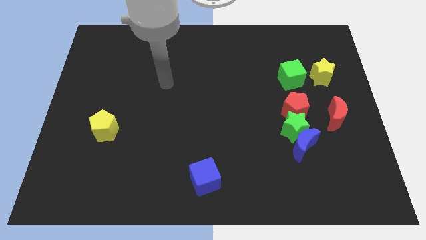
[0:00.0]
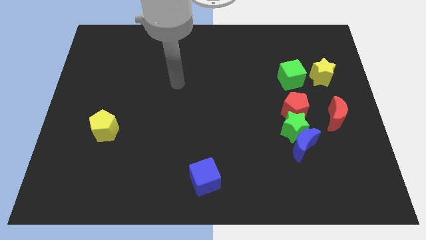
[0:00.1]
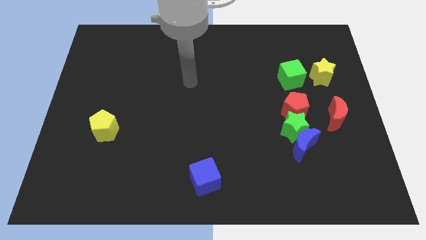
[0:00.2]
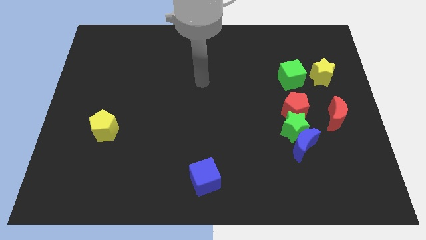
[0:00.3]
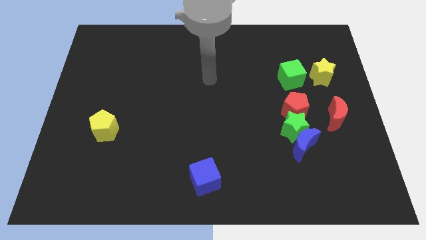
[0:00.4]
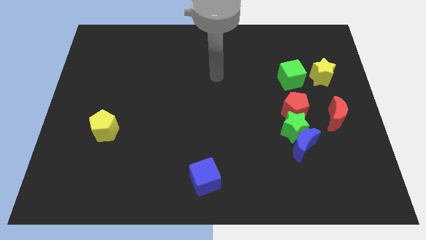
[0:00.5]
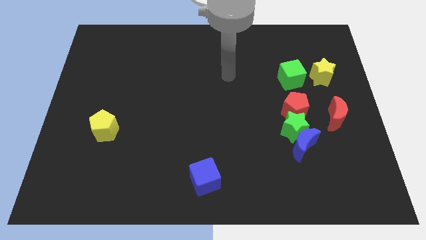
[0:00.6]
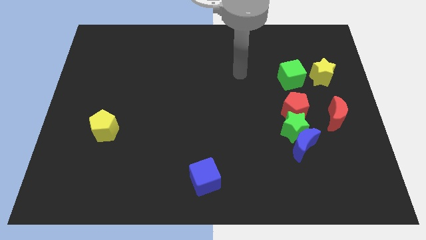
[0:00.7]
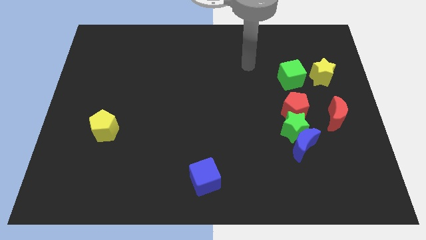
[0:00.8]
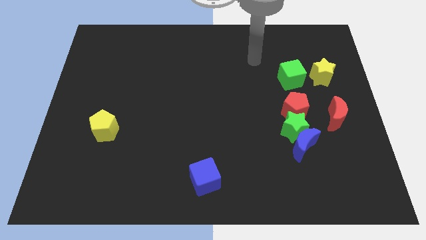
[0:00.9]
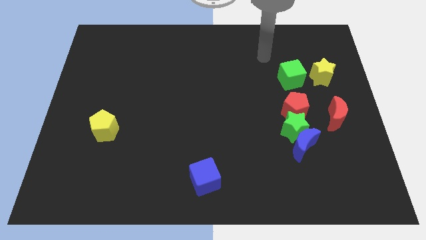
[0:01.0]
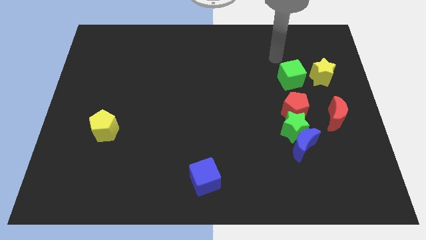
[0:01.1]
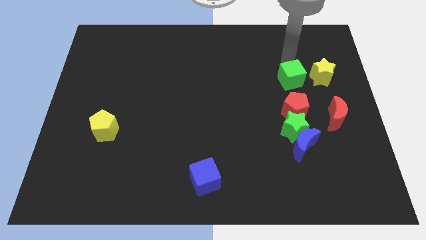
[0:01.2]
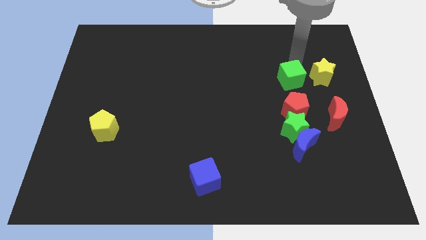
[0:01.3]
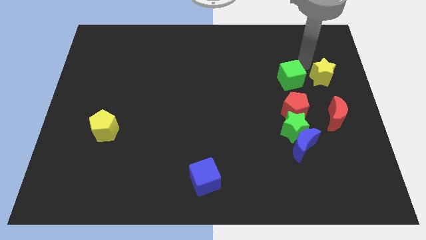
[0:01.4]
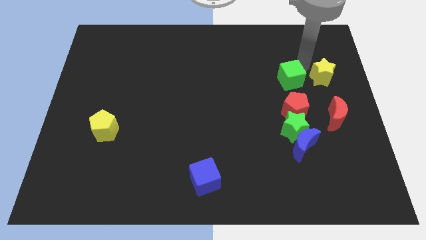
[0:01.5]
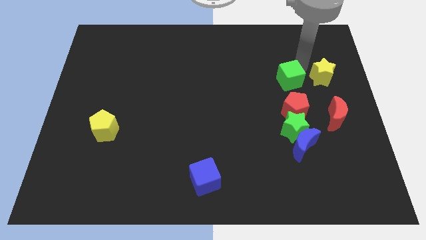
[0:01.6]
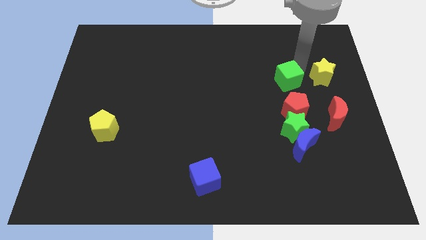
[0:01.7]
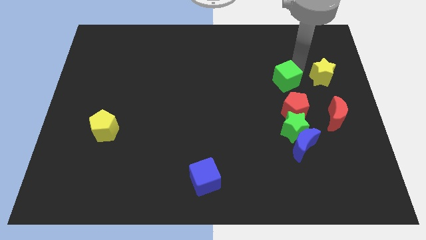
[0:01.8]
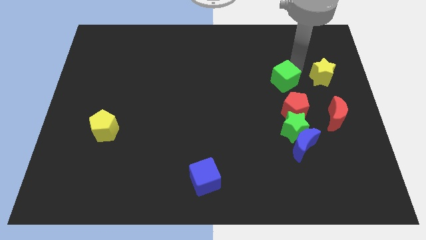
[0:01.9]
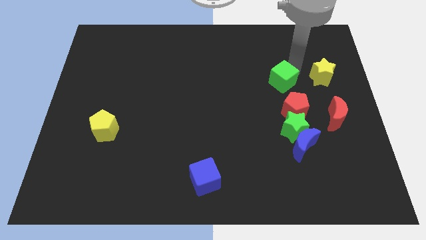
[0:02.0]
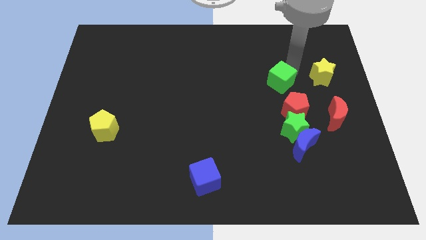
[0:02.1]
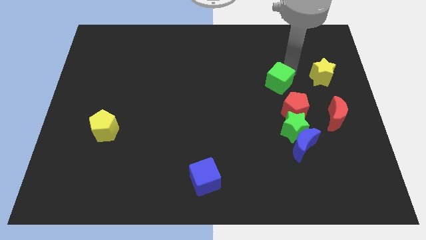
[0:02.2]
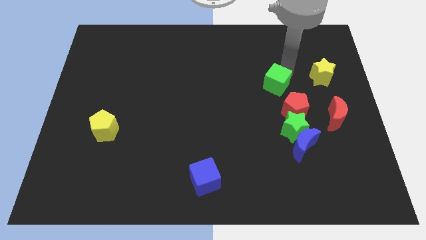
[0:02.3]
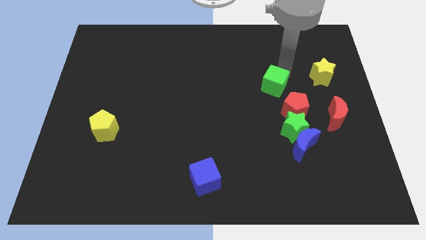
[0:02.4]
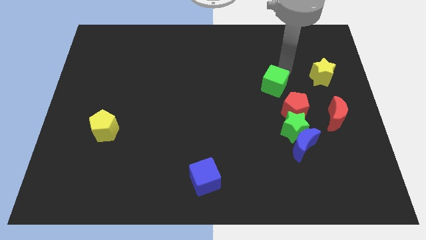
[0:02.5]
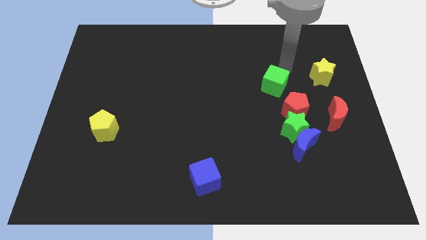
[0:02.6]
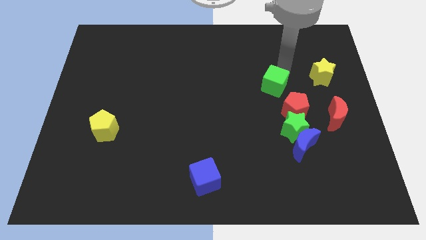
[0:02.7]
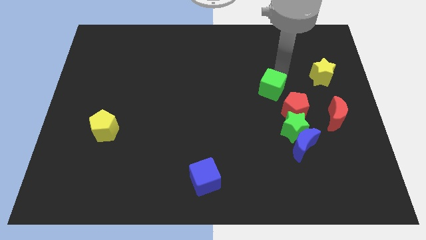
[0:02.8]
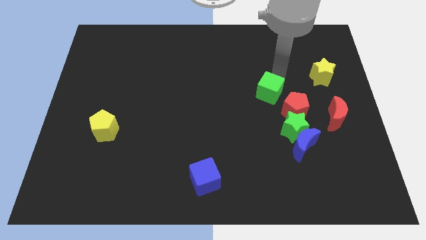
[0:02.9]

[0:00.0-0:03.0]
push the green cube somewhat diagonally downwards and left

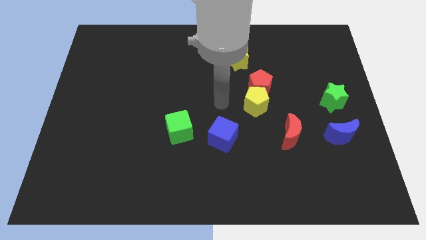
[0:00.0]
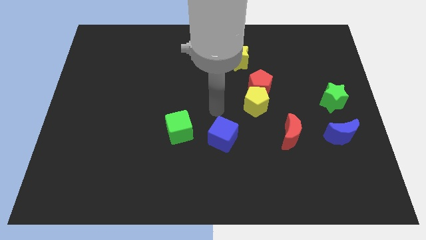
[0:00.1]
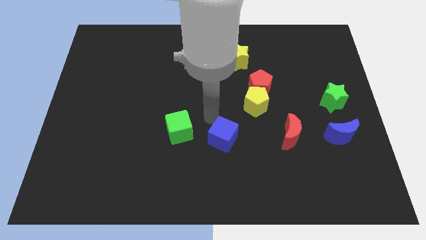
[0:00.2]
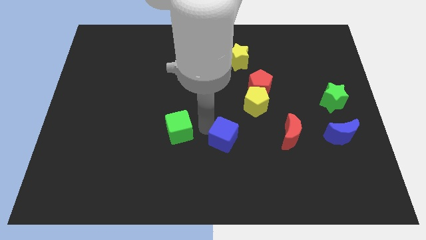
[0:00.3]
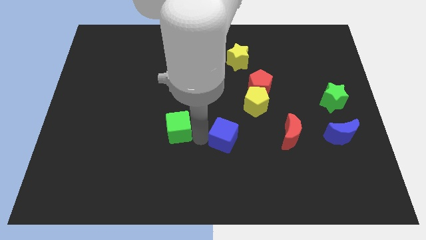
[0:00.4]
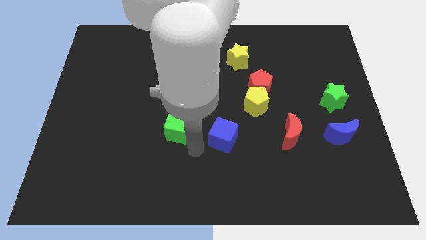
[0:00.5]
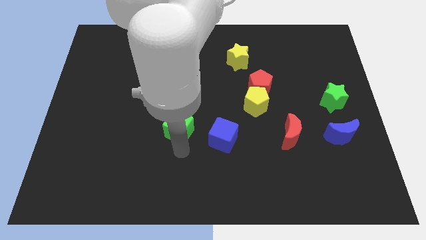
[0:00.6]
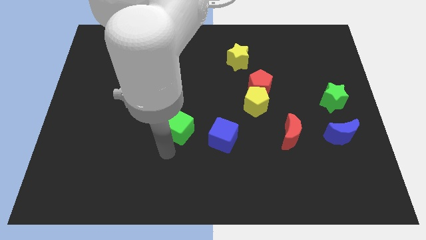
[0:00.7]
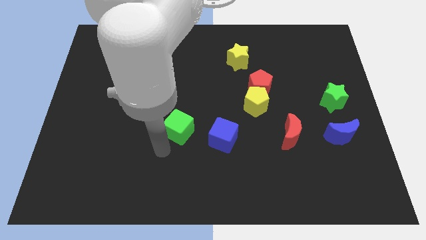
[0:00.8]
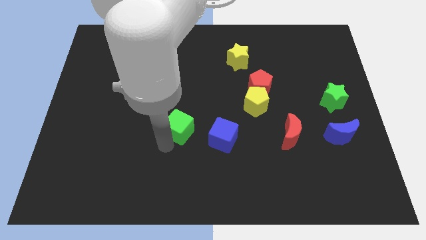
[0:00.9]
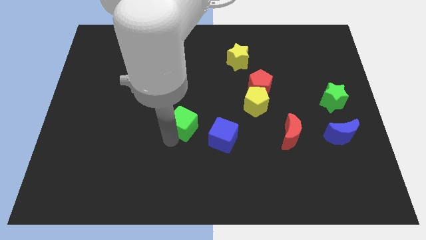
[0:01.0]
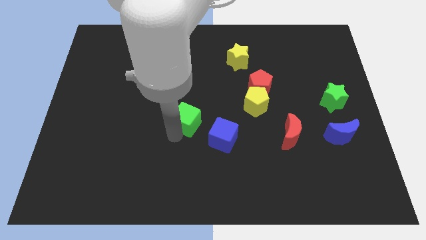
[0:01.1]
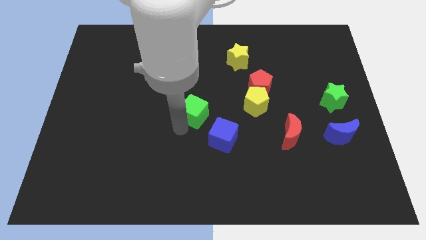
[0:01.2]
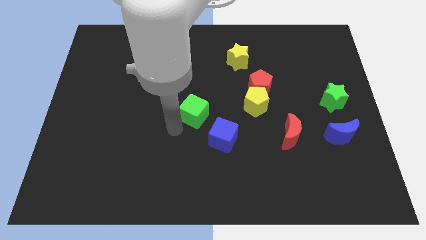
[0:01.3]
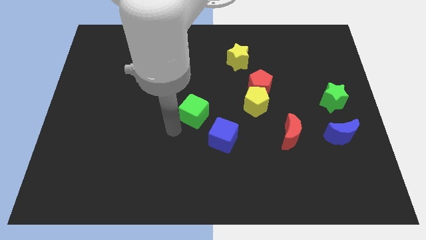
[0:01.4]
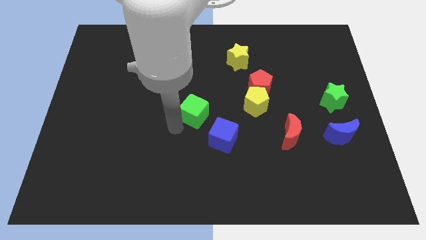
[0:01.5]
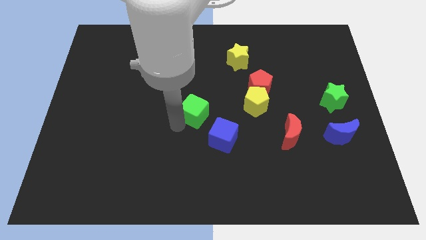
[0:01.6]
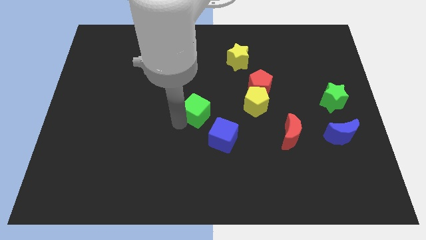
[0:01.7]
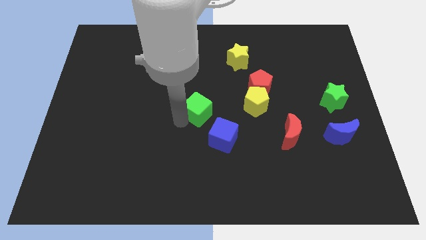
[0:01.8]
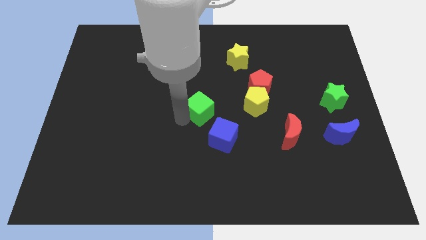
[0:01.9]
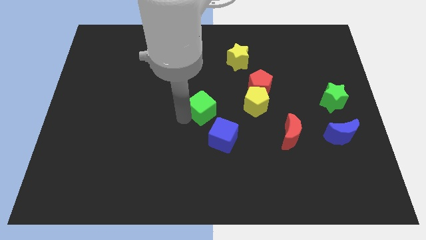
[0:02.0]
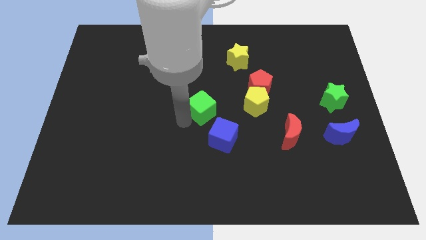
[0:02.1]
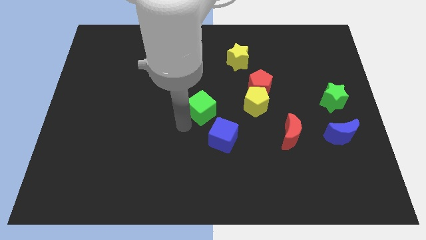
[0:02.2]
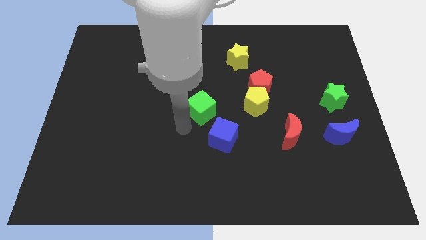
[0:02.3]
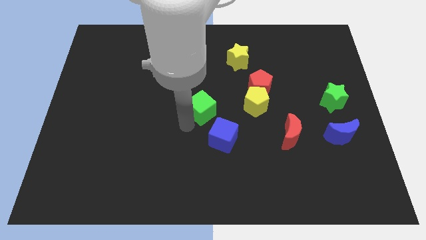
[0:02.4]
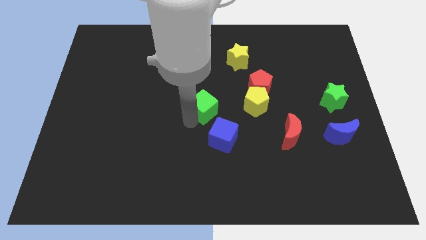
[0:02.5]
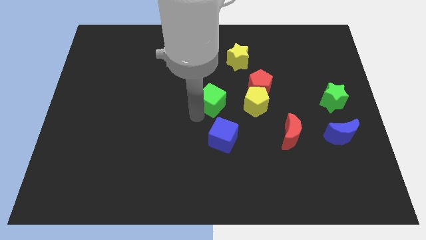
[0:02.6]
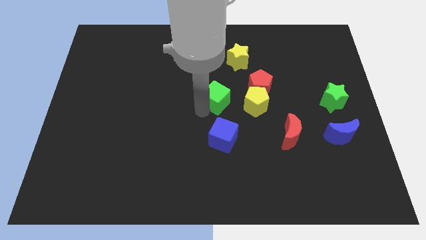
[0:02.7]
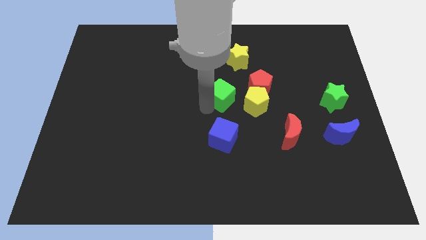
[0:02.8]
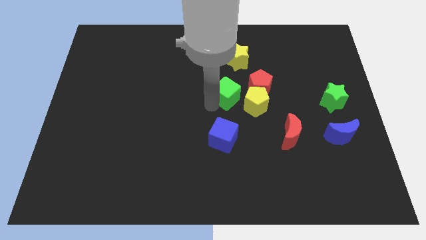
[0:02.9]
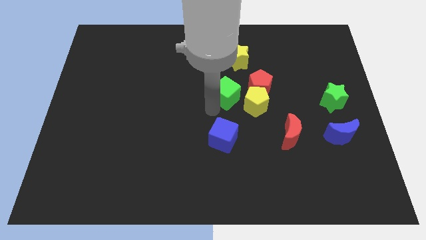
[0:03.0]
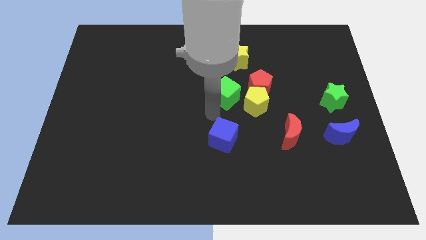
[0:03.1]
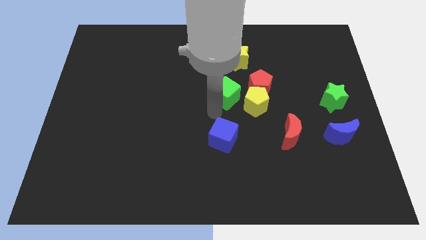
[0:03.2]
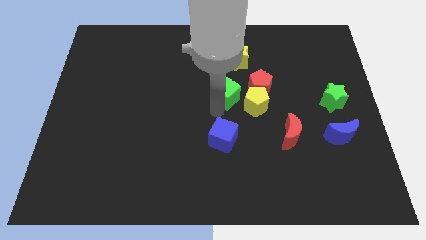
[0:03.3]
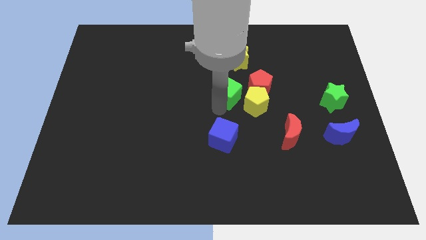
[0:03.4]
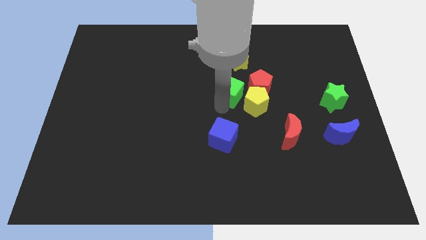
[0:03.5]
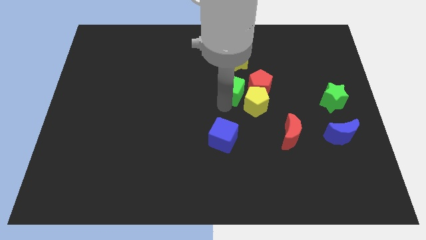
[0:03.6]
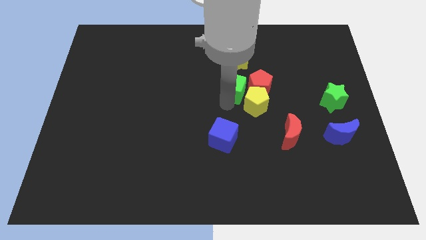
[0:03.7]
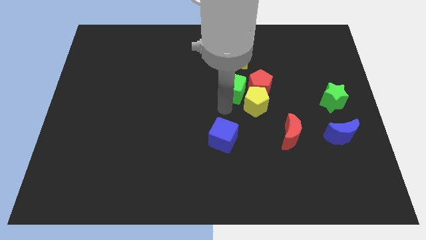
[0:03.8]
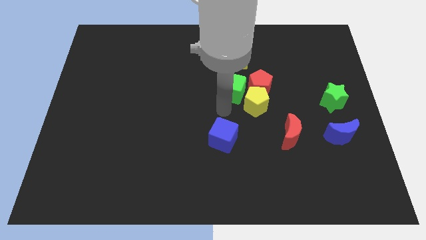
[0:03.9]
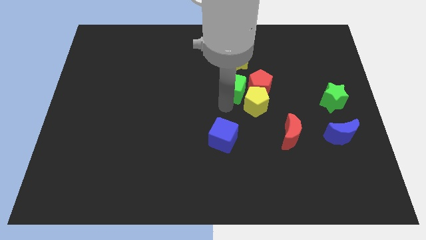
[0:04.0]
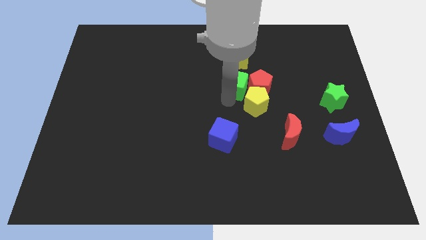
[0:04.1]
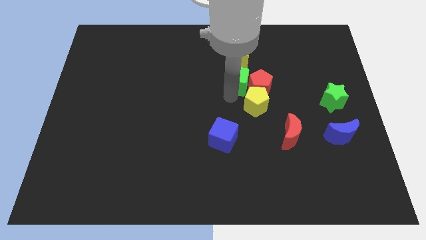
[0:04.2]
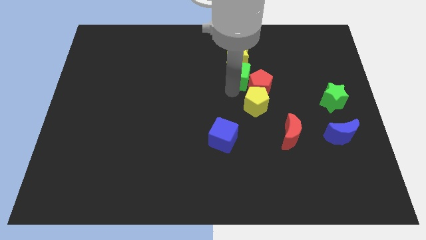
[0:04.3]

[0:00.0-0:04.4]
push the green cube diagonally up and to the right

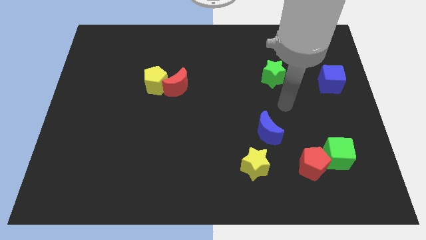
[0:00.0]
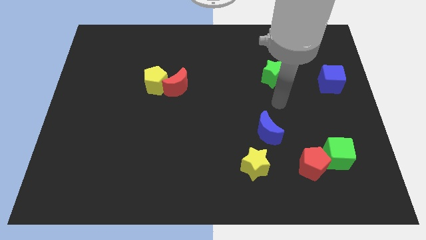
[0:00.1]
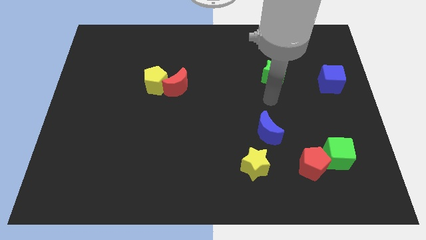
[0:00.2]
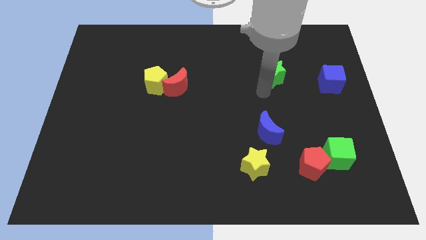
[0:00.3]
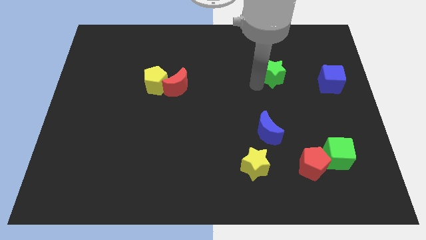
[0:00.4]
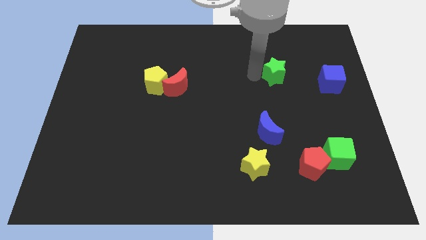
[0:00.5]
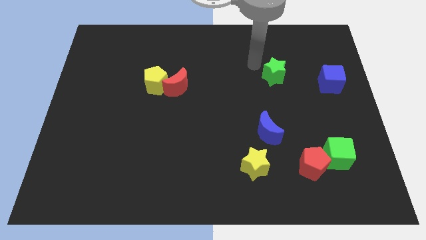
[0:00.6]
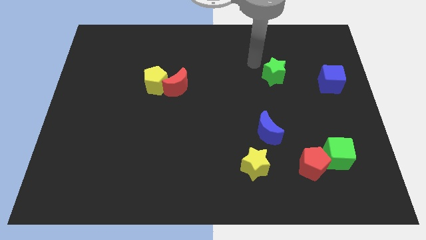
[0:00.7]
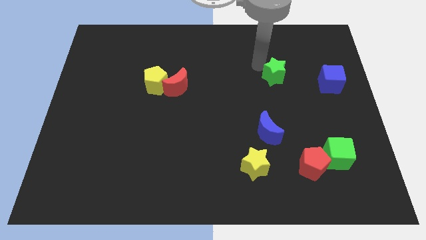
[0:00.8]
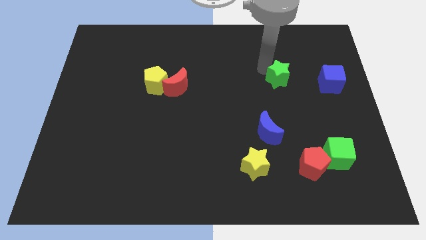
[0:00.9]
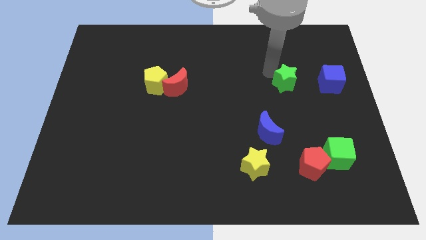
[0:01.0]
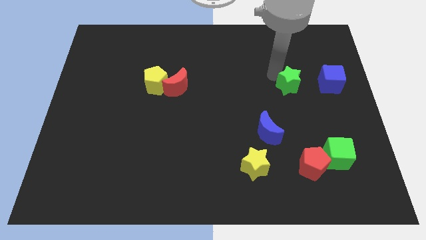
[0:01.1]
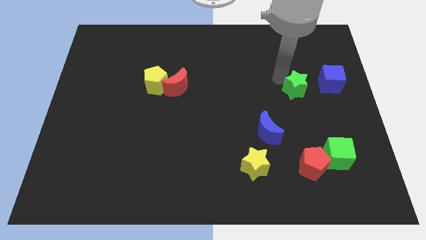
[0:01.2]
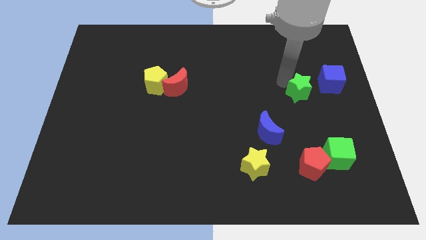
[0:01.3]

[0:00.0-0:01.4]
slightly slide the green star down and to the right
